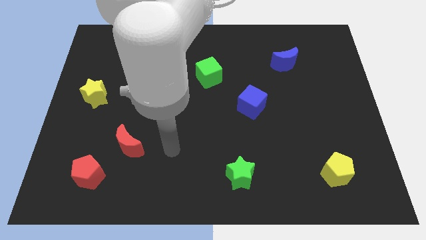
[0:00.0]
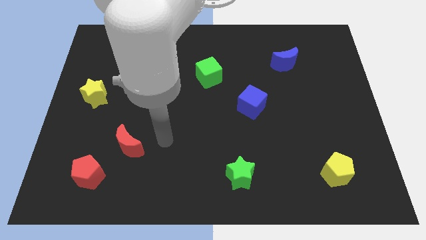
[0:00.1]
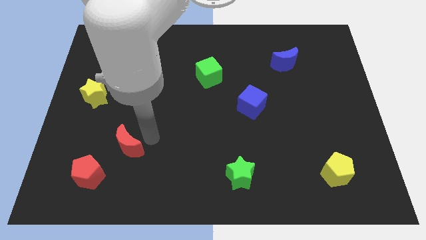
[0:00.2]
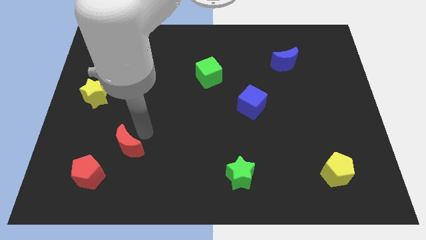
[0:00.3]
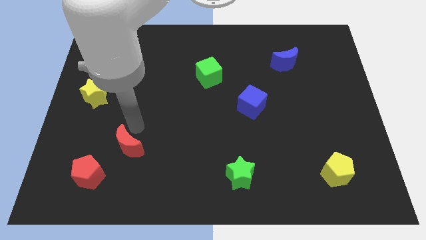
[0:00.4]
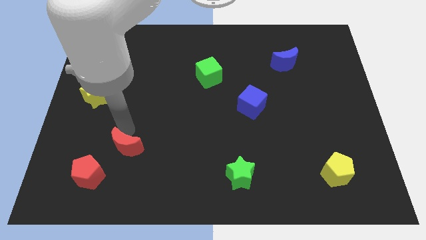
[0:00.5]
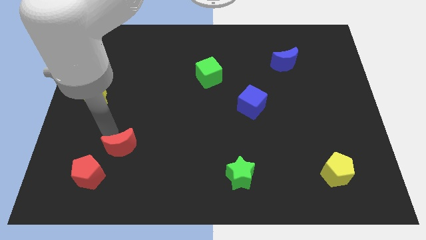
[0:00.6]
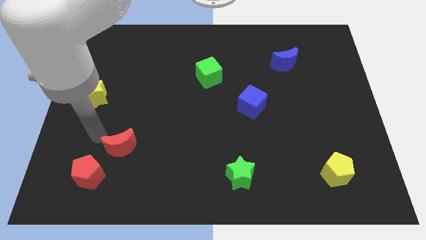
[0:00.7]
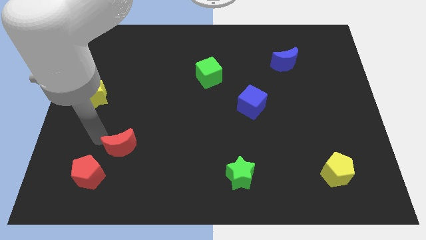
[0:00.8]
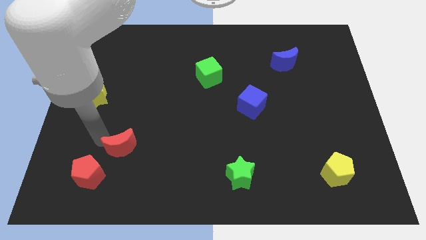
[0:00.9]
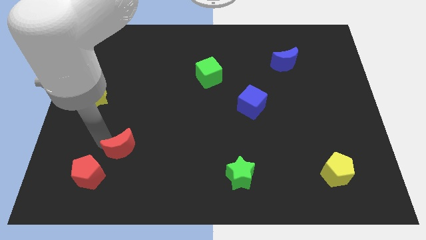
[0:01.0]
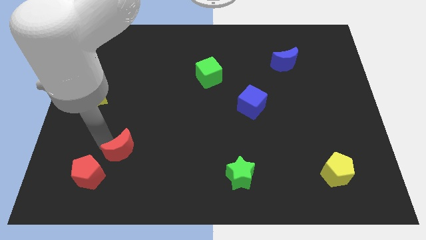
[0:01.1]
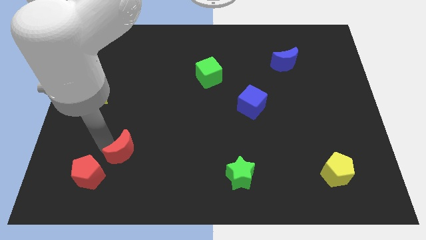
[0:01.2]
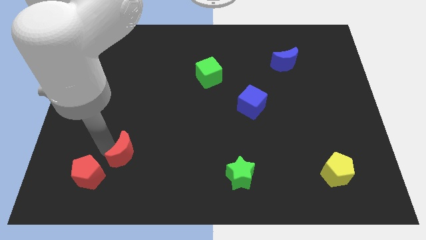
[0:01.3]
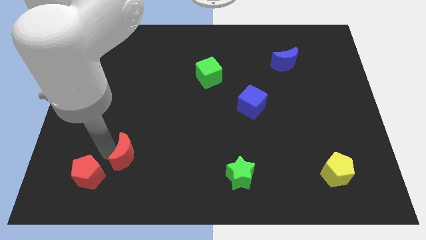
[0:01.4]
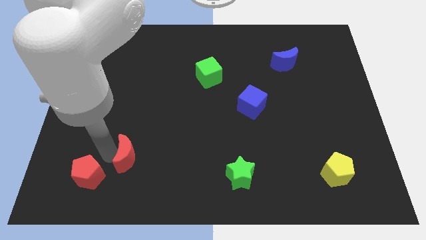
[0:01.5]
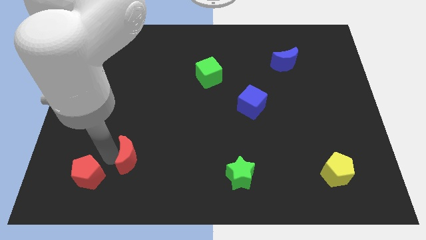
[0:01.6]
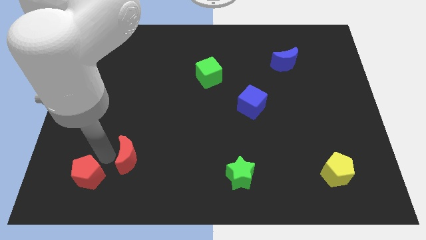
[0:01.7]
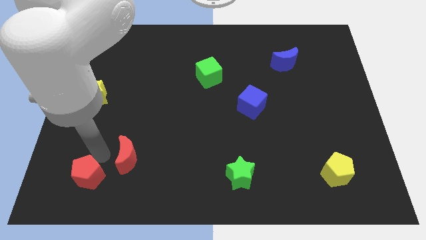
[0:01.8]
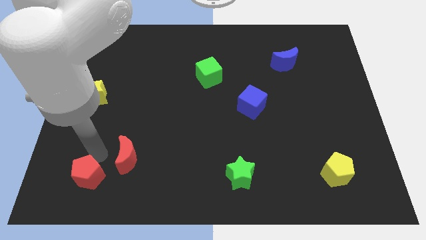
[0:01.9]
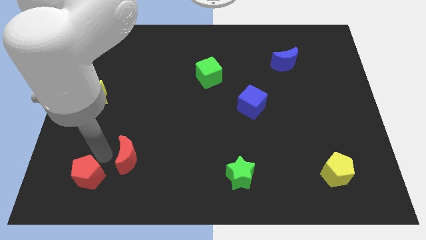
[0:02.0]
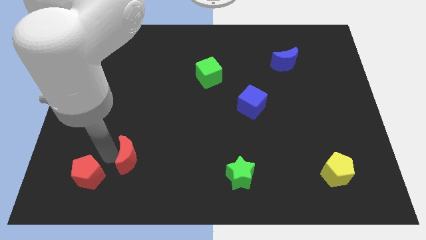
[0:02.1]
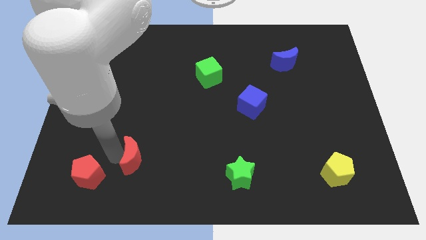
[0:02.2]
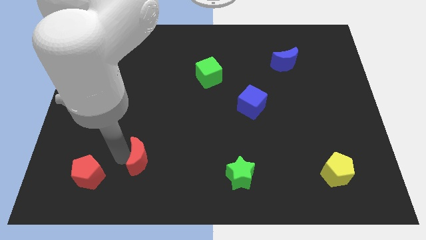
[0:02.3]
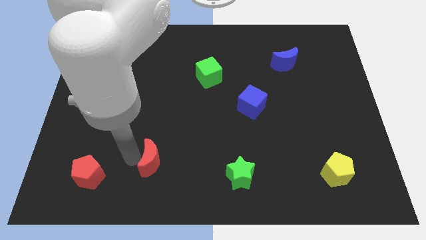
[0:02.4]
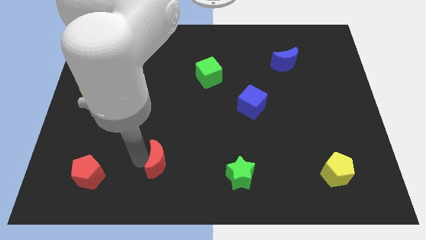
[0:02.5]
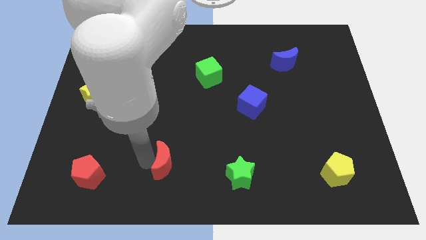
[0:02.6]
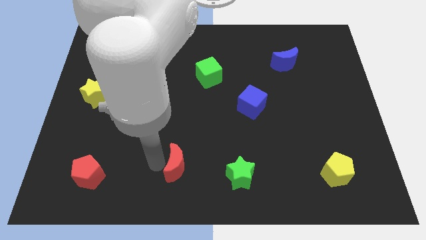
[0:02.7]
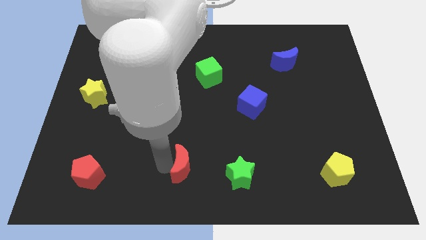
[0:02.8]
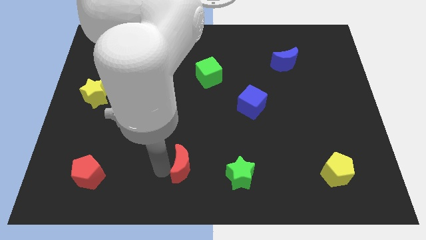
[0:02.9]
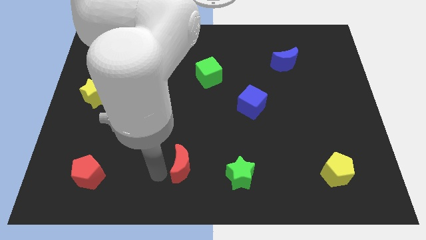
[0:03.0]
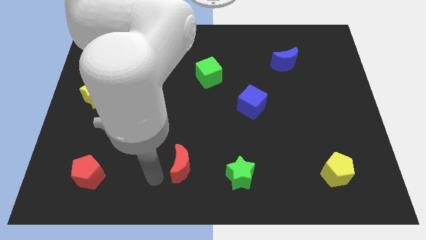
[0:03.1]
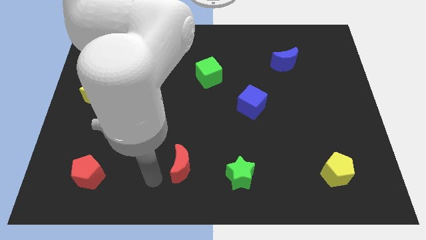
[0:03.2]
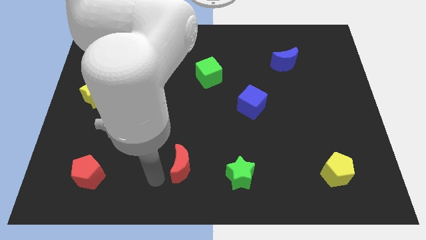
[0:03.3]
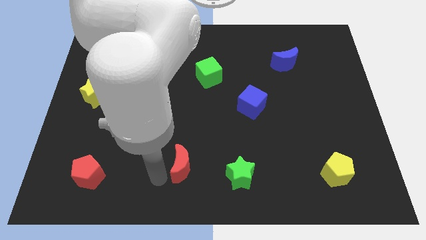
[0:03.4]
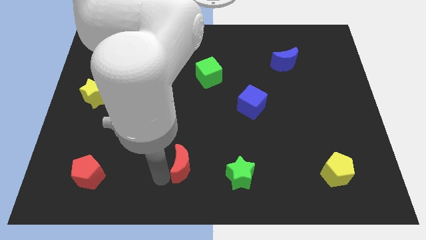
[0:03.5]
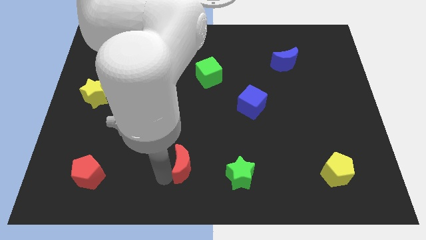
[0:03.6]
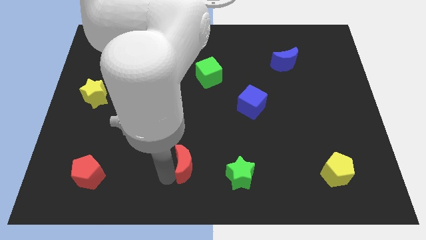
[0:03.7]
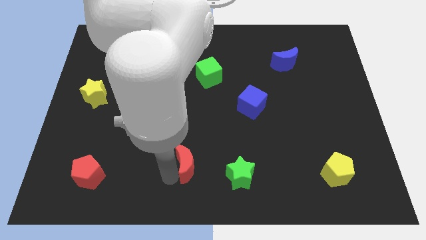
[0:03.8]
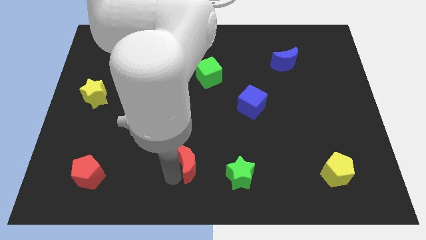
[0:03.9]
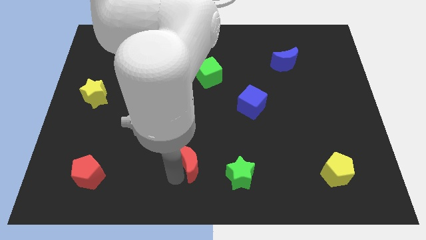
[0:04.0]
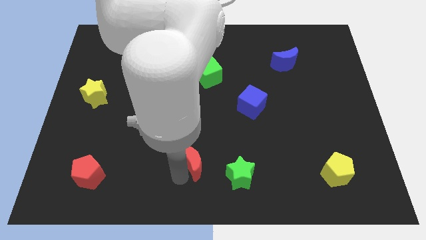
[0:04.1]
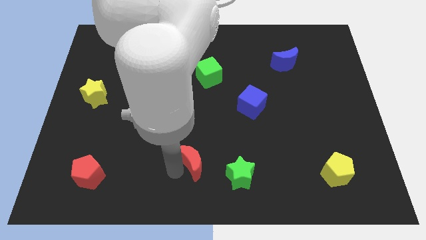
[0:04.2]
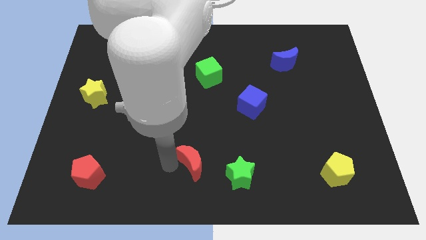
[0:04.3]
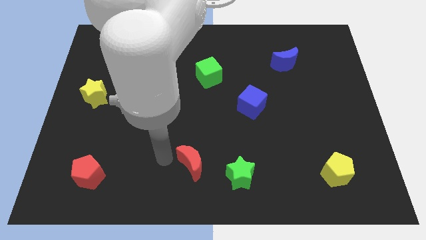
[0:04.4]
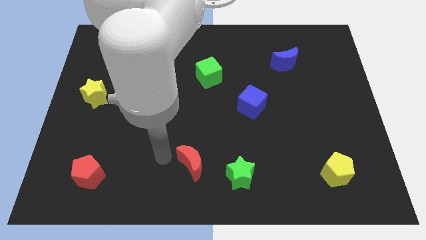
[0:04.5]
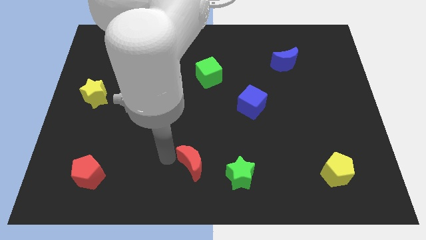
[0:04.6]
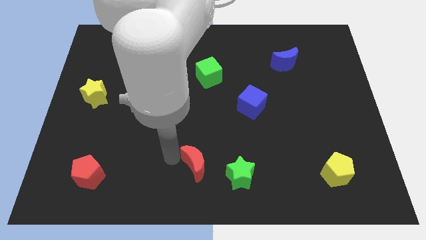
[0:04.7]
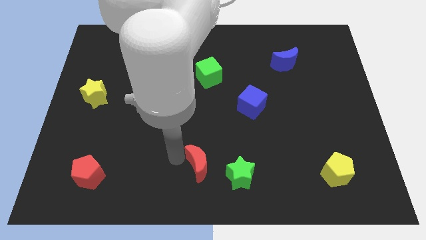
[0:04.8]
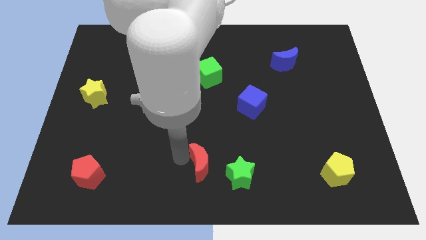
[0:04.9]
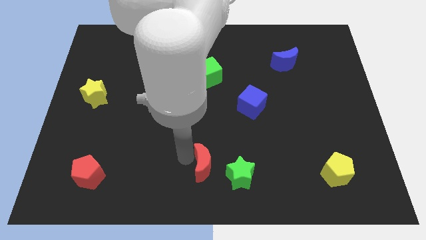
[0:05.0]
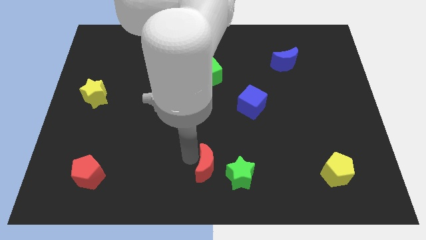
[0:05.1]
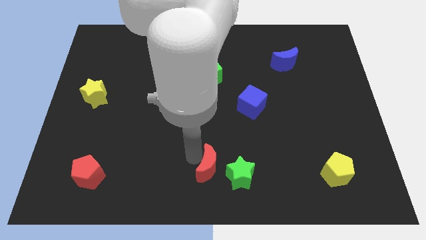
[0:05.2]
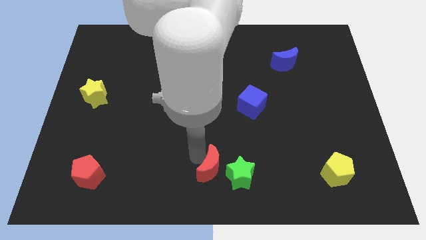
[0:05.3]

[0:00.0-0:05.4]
move the red moon to the green star

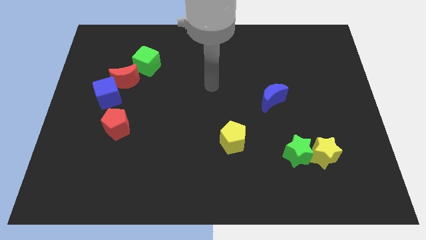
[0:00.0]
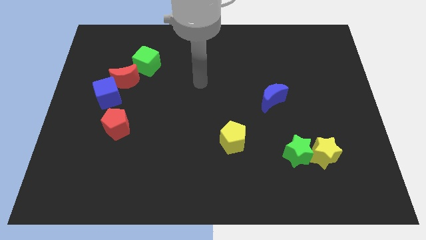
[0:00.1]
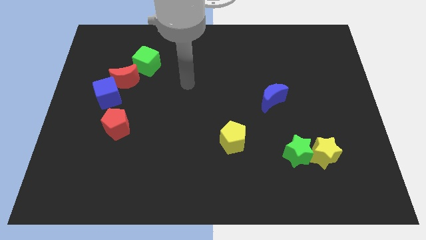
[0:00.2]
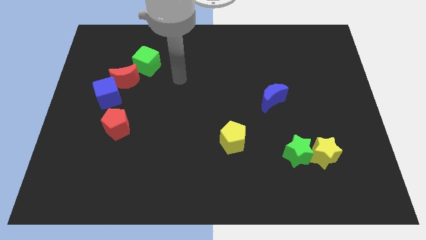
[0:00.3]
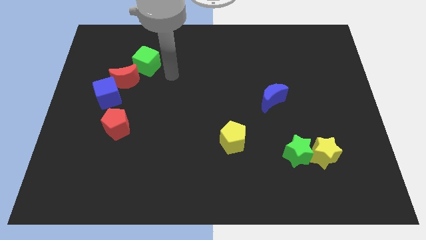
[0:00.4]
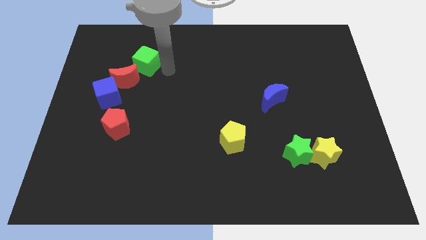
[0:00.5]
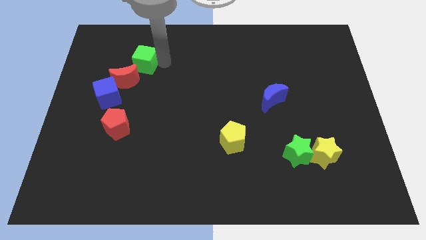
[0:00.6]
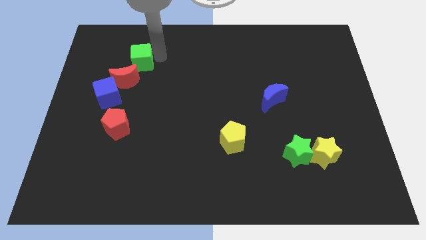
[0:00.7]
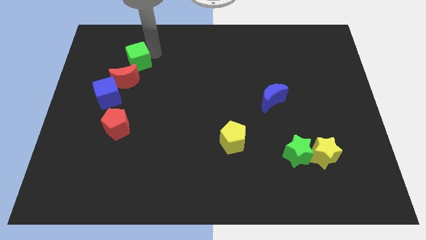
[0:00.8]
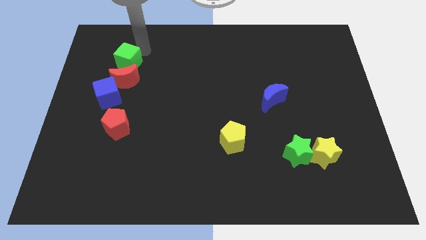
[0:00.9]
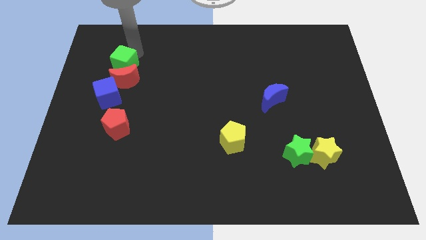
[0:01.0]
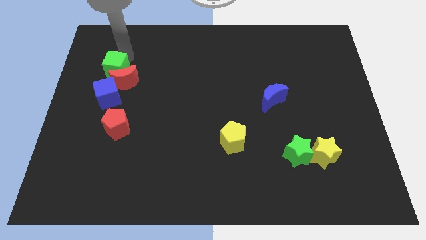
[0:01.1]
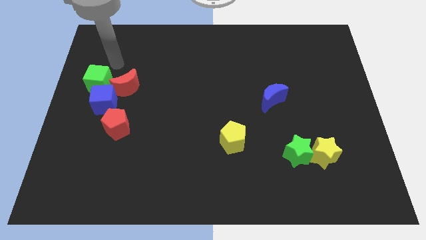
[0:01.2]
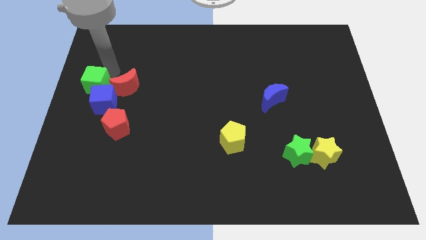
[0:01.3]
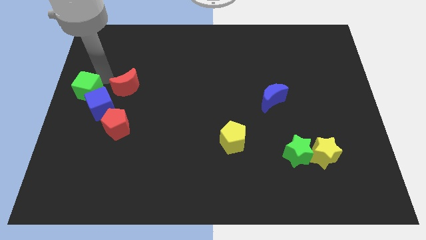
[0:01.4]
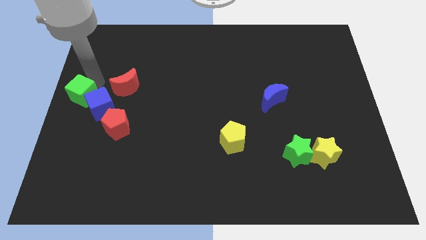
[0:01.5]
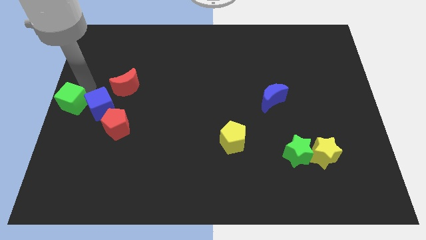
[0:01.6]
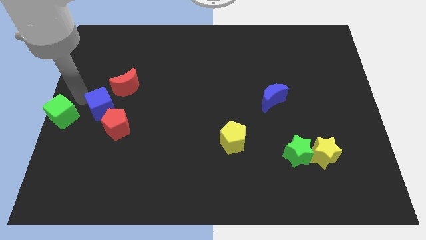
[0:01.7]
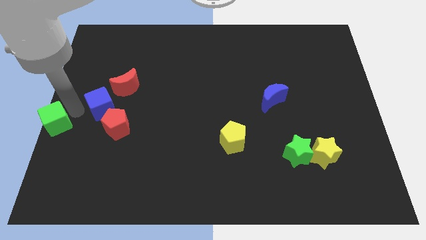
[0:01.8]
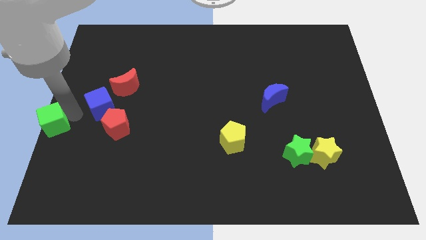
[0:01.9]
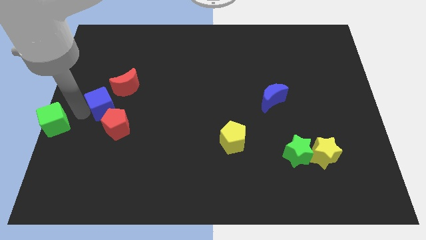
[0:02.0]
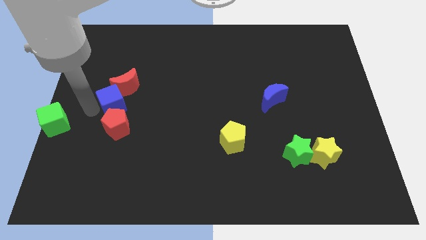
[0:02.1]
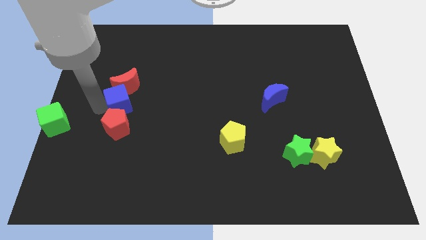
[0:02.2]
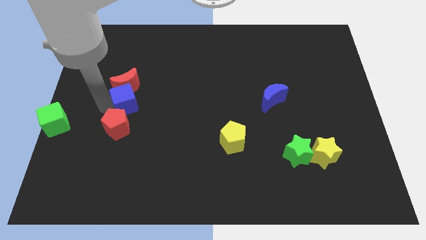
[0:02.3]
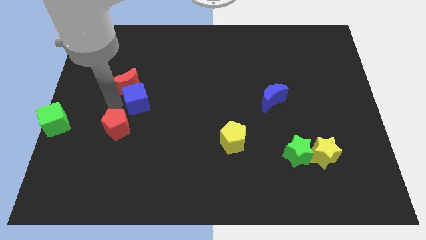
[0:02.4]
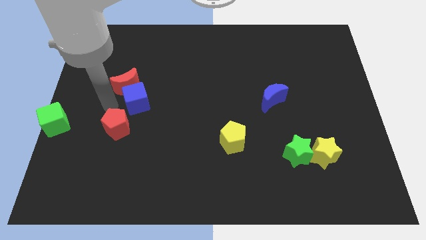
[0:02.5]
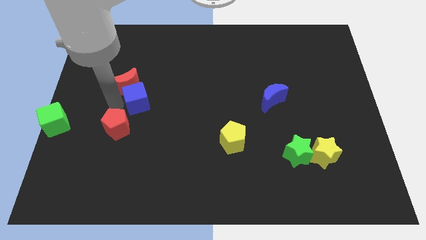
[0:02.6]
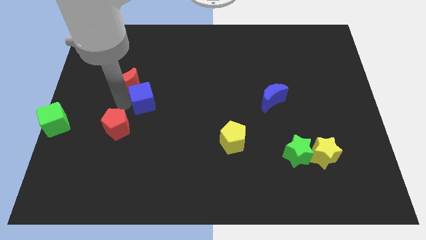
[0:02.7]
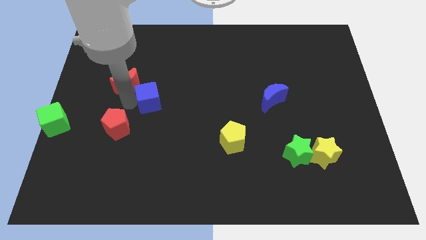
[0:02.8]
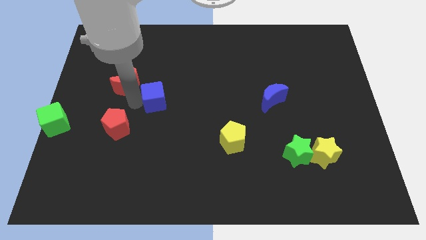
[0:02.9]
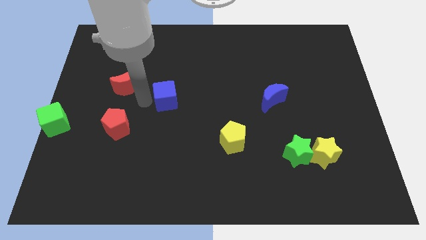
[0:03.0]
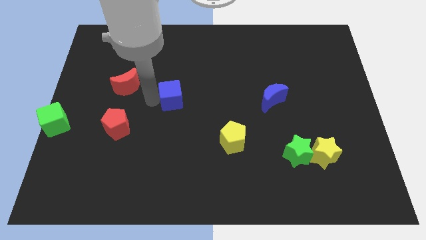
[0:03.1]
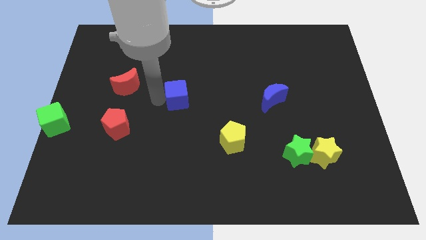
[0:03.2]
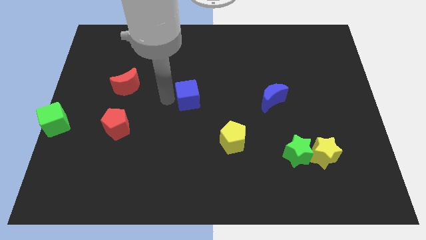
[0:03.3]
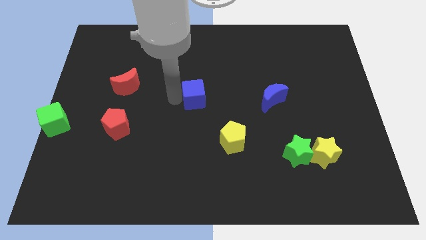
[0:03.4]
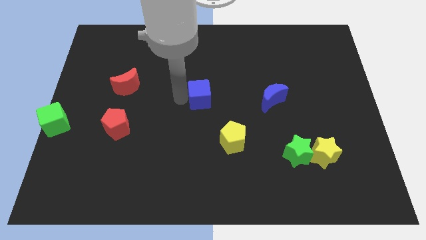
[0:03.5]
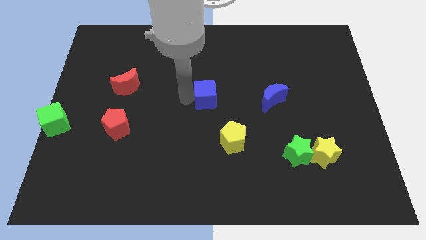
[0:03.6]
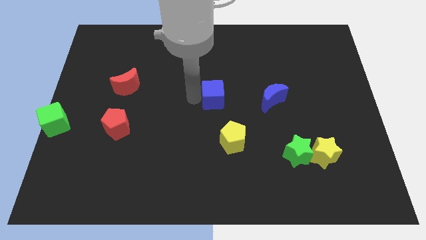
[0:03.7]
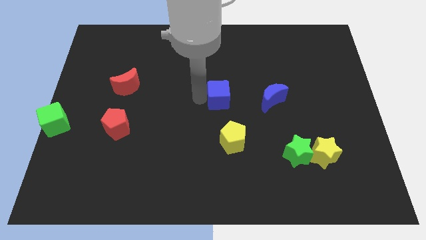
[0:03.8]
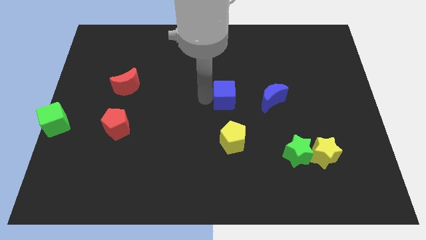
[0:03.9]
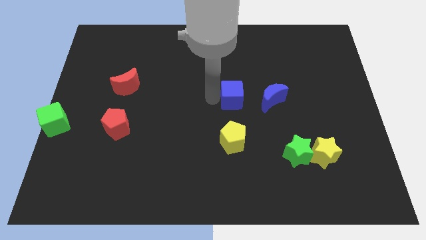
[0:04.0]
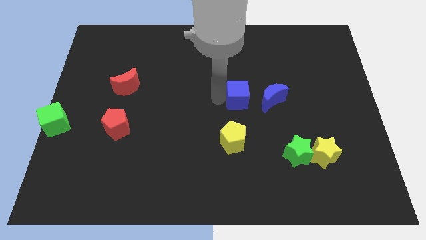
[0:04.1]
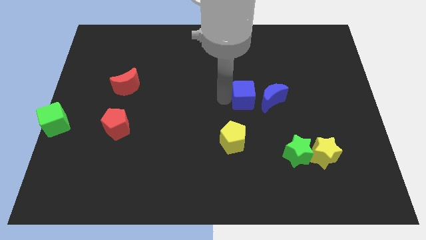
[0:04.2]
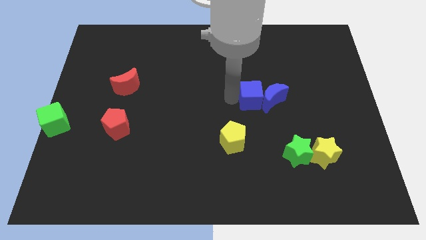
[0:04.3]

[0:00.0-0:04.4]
put the blue cube next to the blue moon
